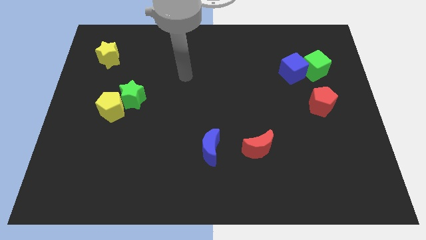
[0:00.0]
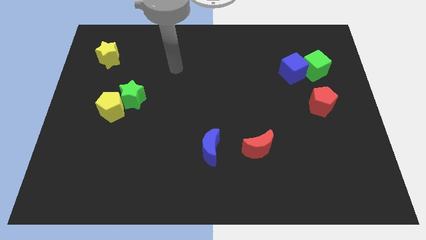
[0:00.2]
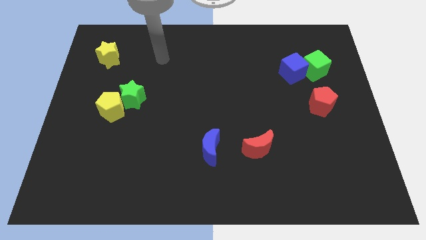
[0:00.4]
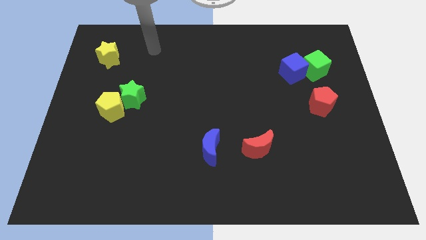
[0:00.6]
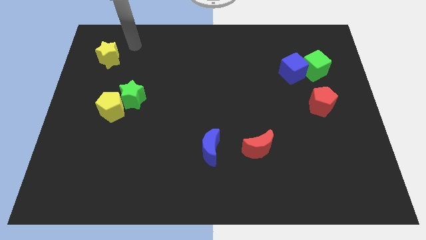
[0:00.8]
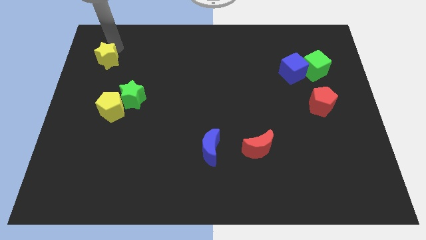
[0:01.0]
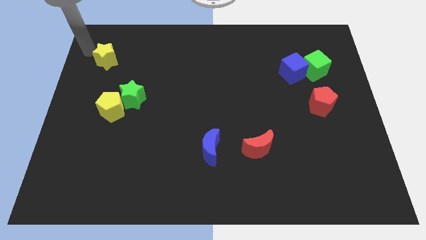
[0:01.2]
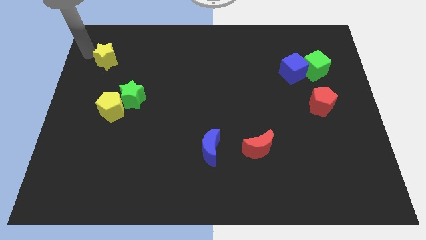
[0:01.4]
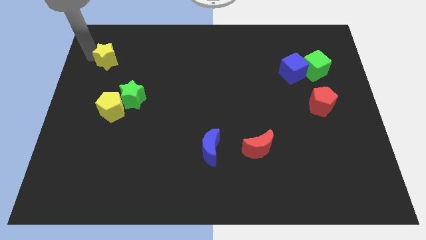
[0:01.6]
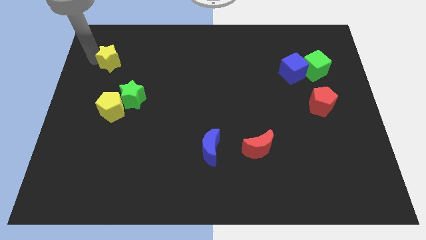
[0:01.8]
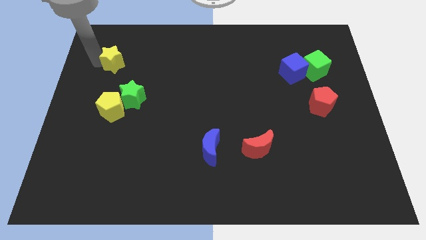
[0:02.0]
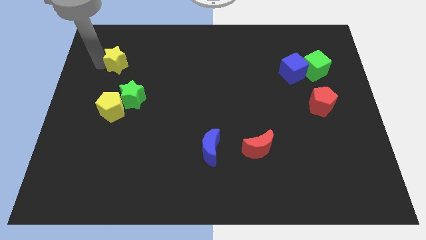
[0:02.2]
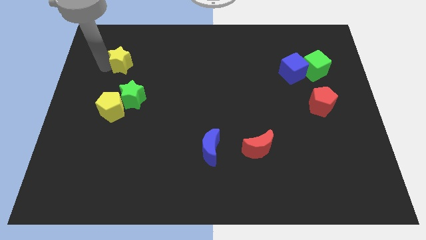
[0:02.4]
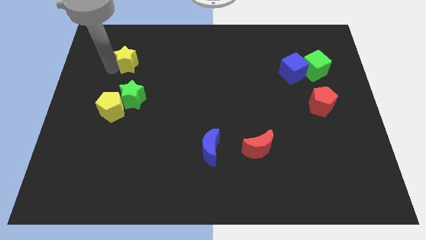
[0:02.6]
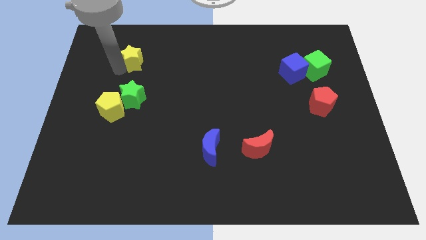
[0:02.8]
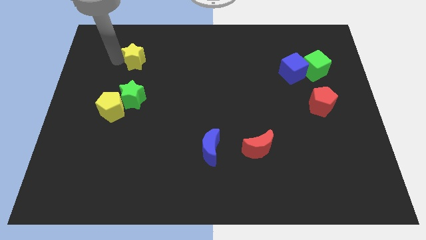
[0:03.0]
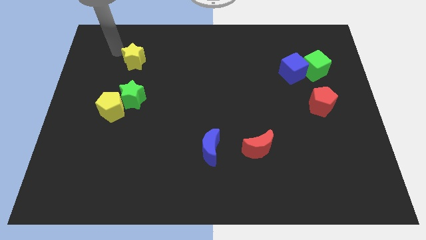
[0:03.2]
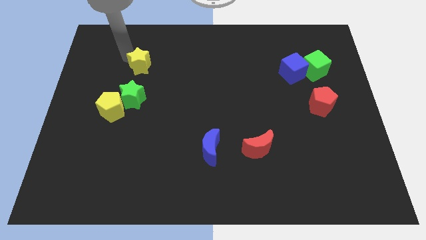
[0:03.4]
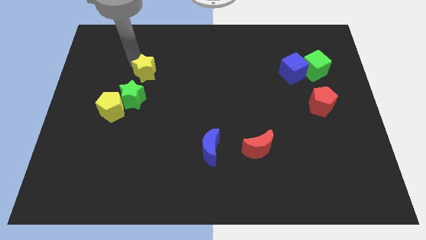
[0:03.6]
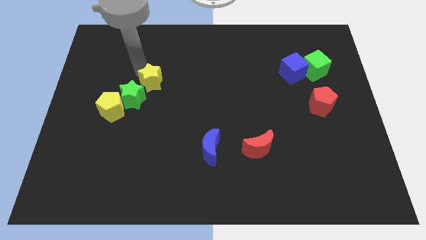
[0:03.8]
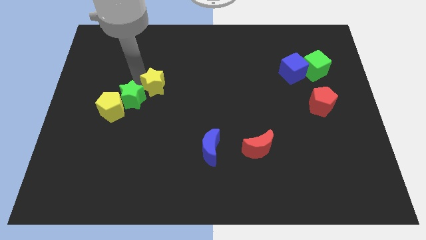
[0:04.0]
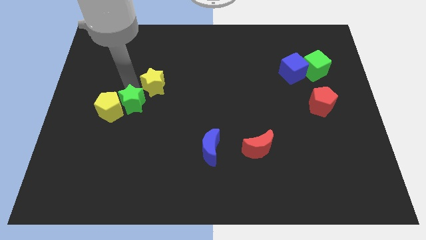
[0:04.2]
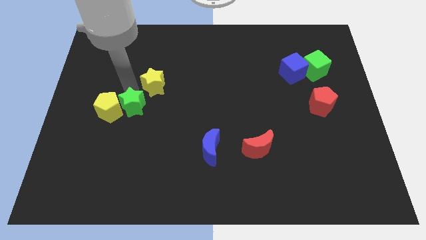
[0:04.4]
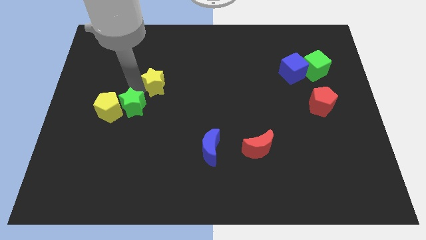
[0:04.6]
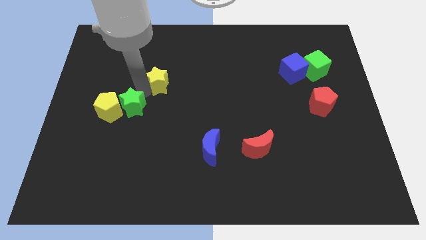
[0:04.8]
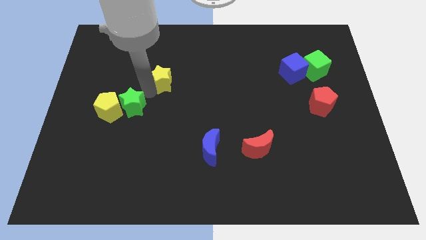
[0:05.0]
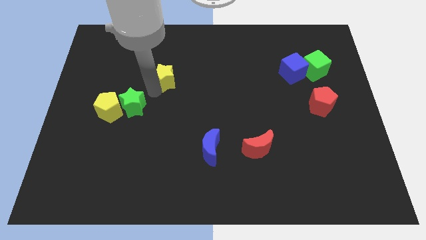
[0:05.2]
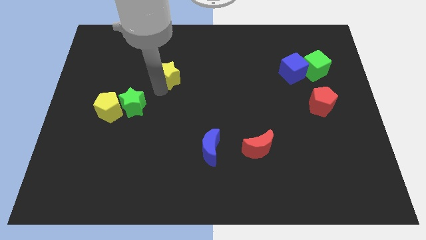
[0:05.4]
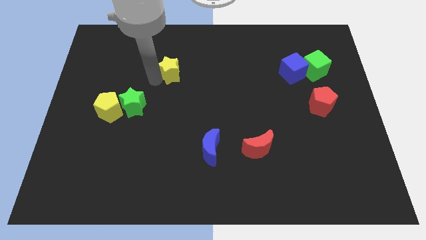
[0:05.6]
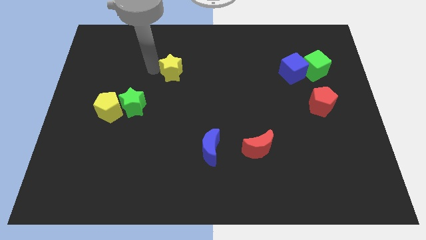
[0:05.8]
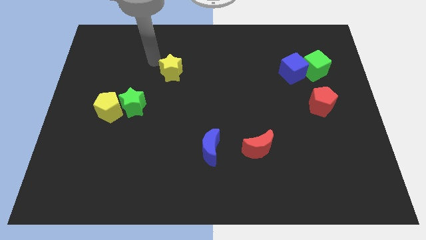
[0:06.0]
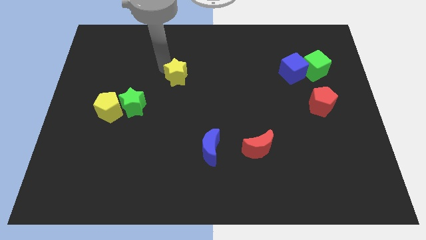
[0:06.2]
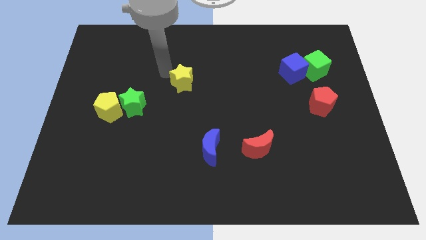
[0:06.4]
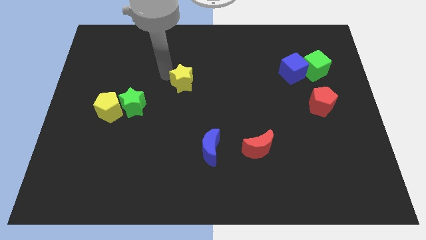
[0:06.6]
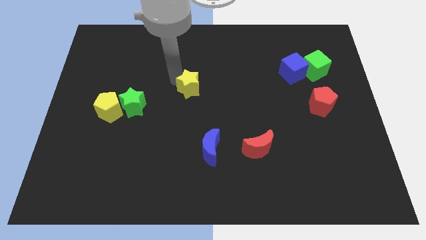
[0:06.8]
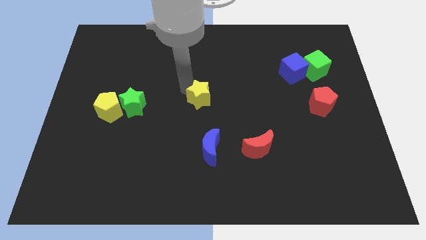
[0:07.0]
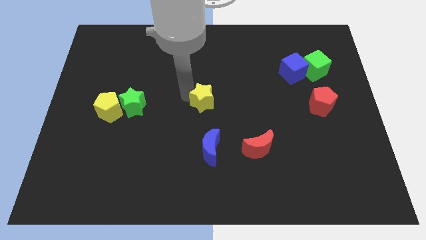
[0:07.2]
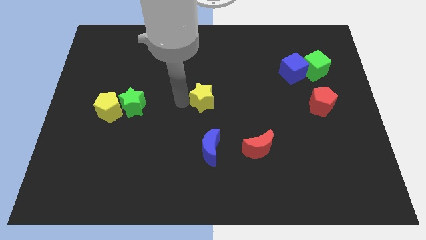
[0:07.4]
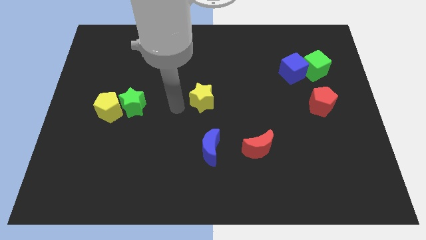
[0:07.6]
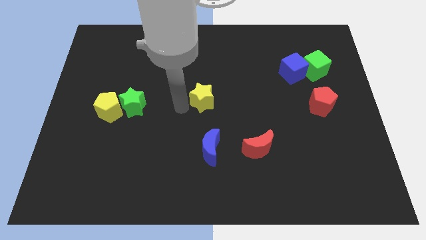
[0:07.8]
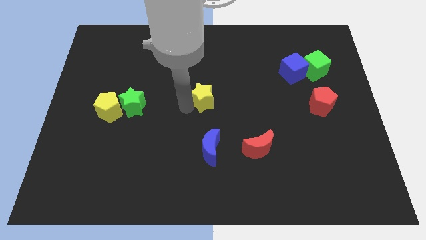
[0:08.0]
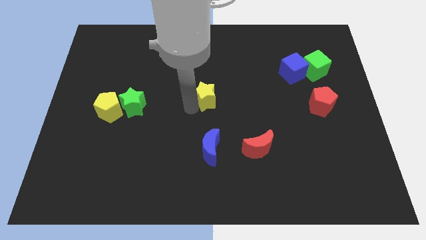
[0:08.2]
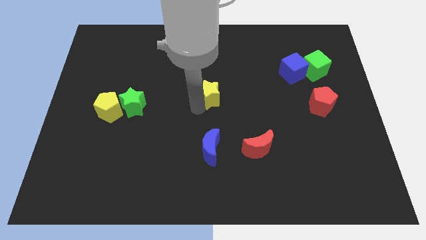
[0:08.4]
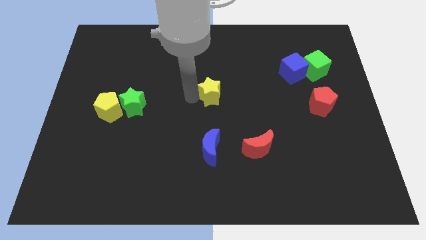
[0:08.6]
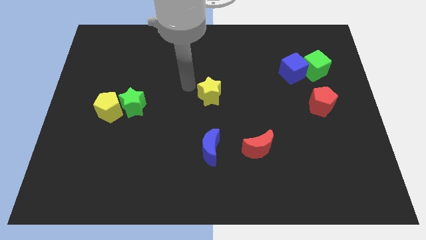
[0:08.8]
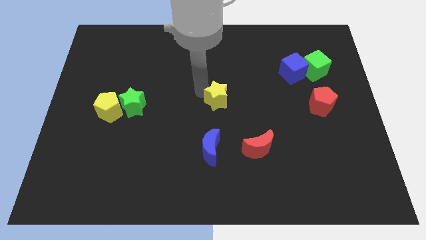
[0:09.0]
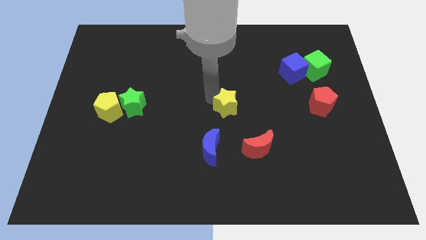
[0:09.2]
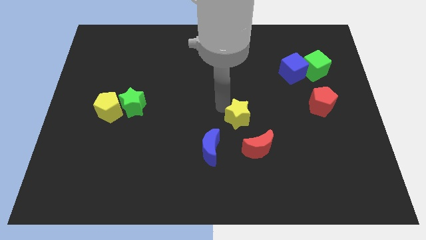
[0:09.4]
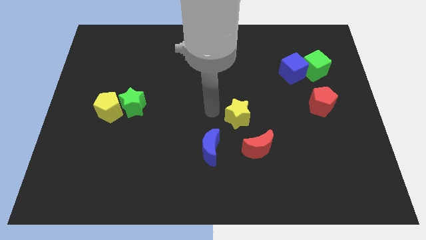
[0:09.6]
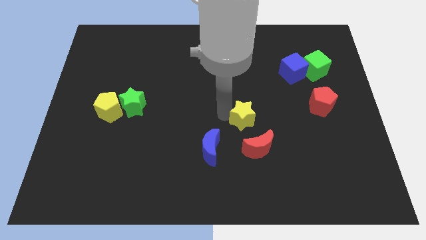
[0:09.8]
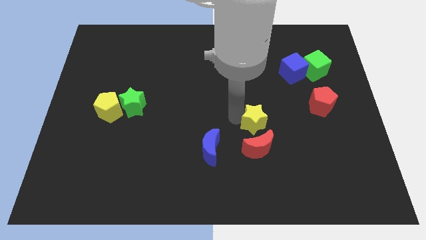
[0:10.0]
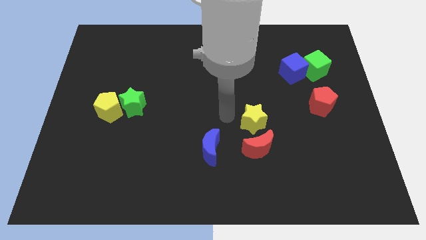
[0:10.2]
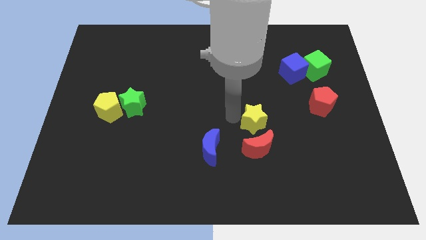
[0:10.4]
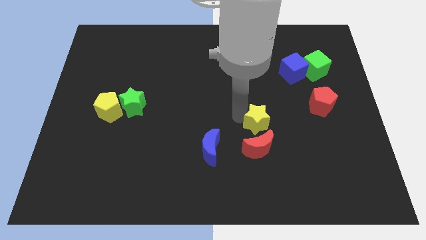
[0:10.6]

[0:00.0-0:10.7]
push the yellow star to the top right of the red moon
